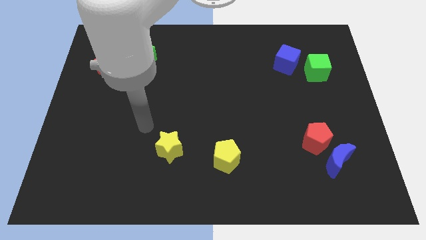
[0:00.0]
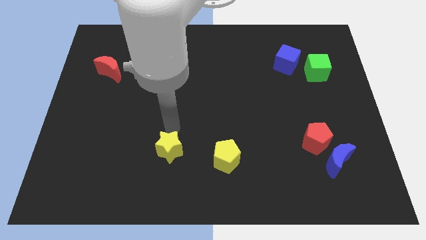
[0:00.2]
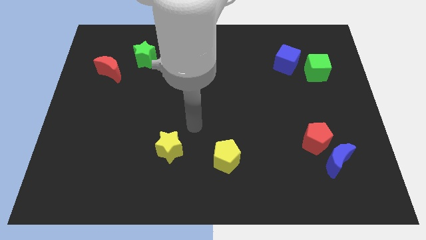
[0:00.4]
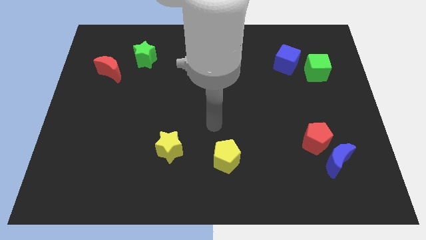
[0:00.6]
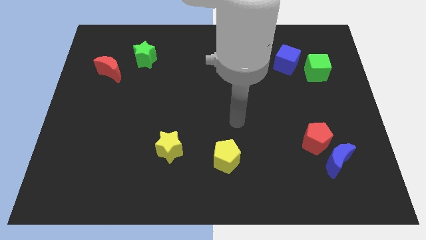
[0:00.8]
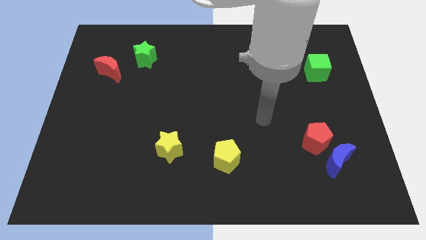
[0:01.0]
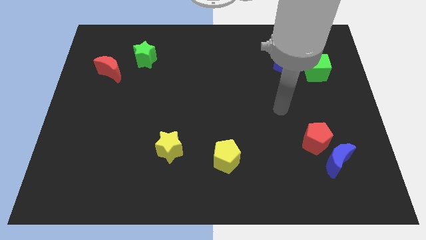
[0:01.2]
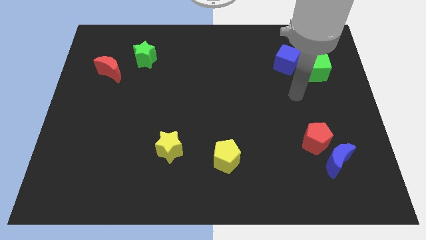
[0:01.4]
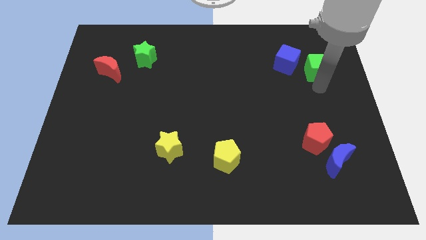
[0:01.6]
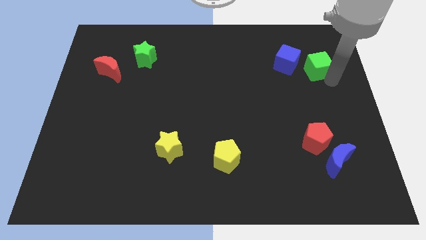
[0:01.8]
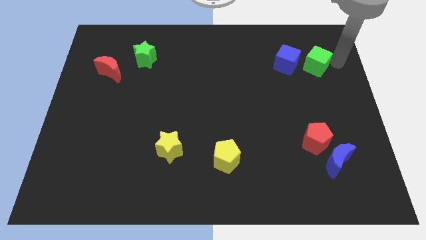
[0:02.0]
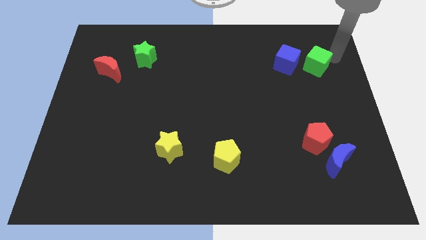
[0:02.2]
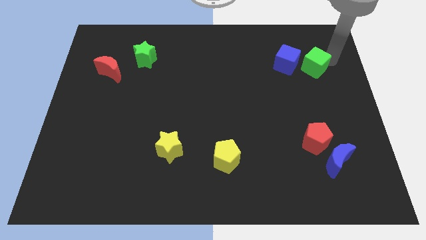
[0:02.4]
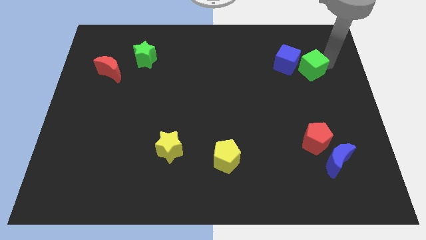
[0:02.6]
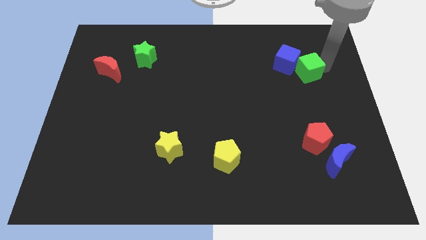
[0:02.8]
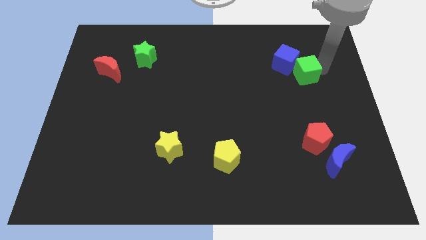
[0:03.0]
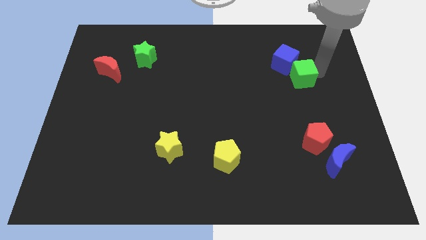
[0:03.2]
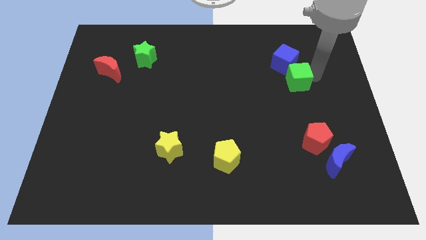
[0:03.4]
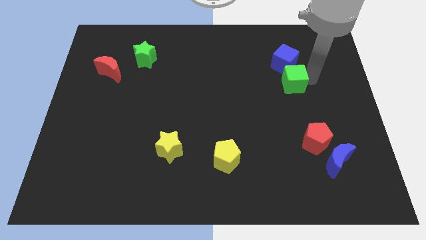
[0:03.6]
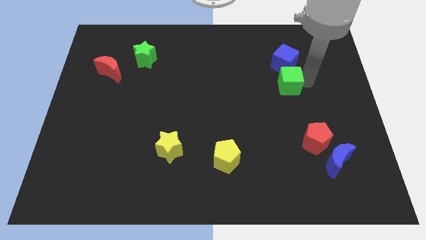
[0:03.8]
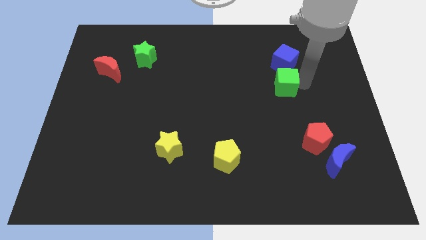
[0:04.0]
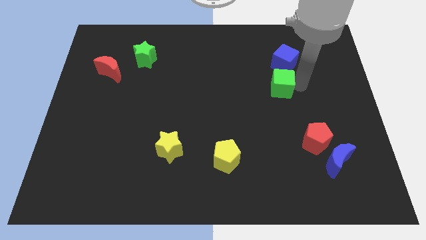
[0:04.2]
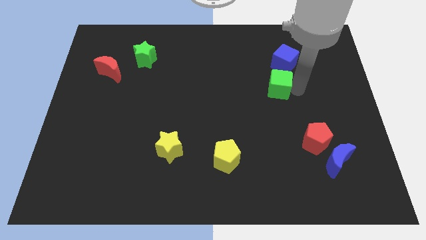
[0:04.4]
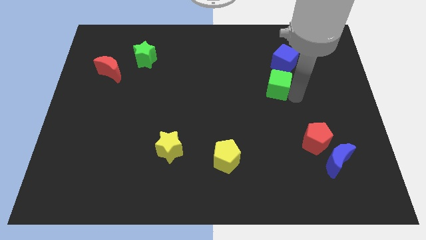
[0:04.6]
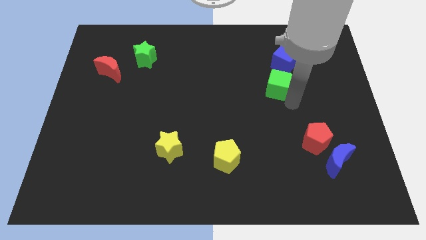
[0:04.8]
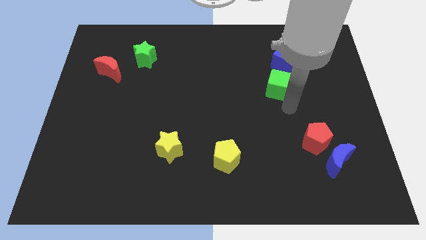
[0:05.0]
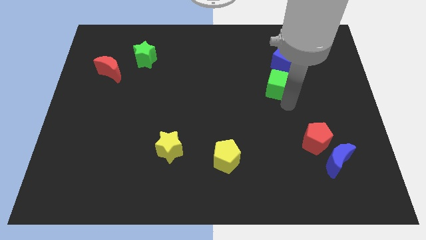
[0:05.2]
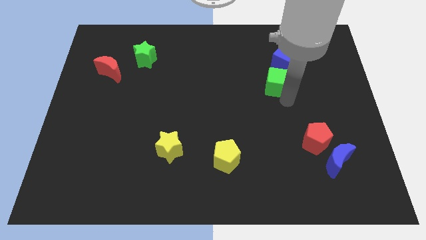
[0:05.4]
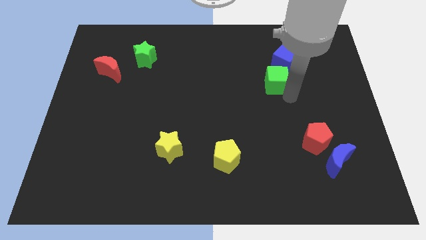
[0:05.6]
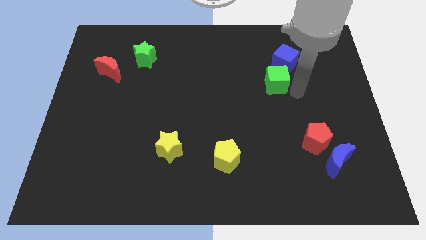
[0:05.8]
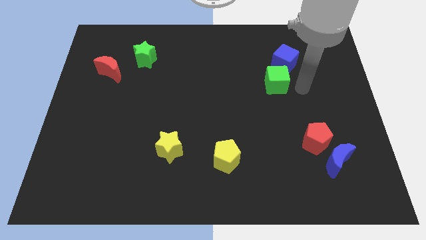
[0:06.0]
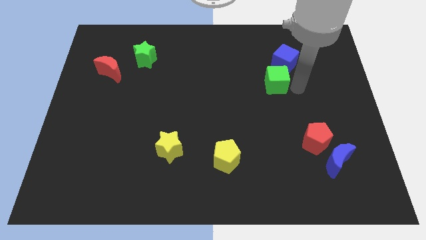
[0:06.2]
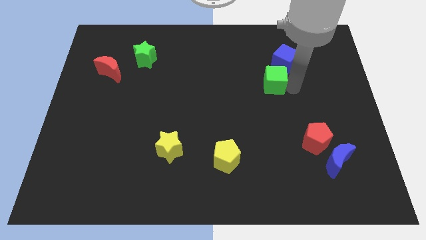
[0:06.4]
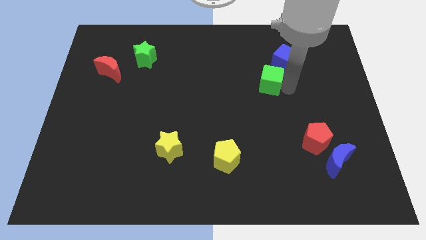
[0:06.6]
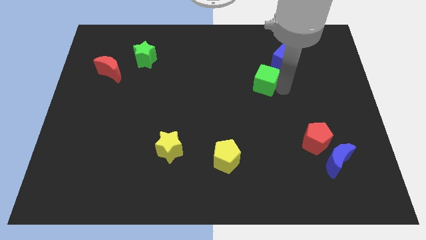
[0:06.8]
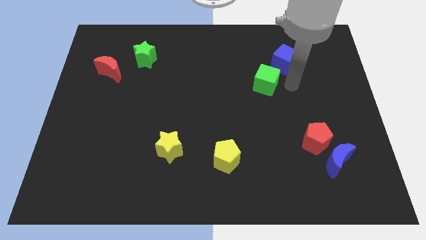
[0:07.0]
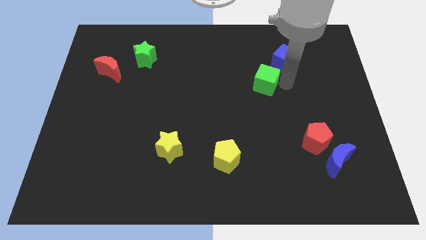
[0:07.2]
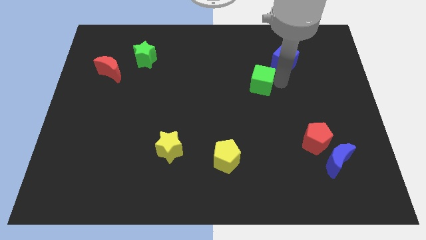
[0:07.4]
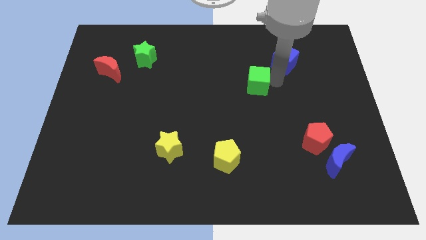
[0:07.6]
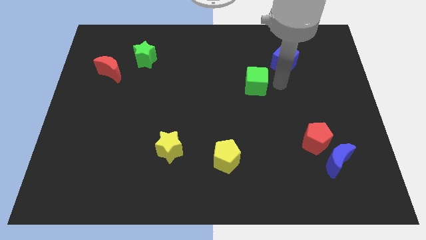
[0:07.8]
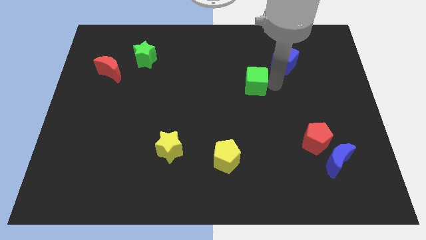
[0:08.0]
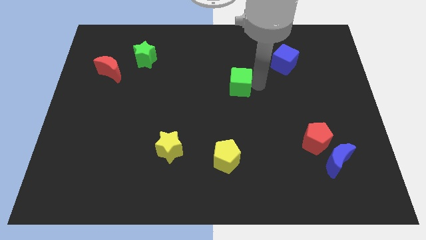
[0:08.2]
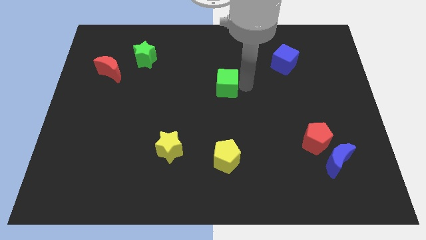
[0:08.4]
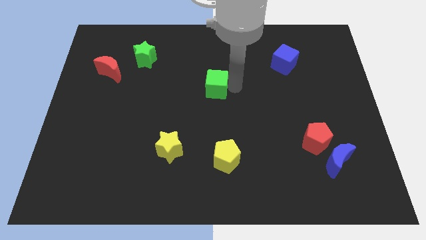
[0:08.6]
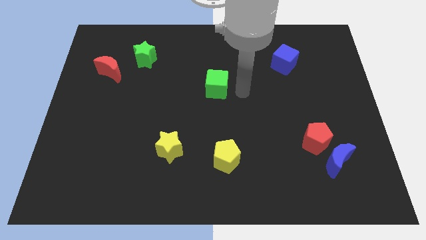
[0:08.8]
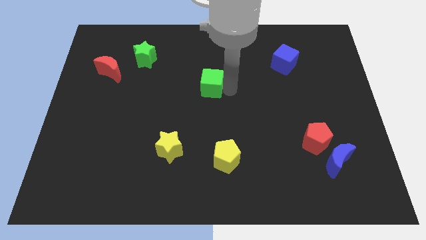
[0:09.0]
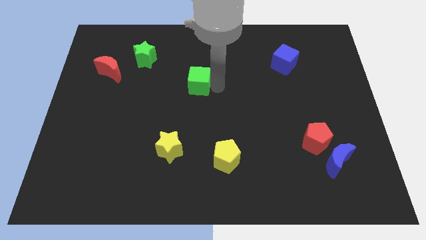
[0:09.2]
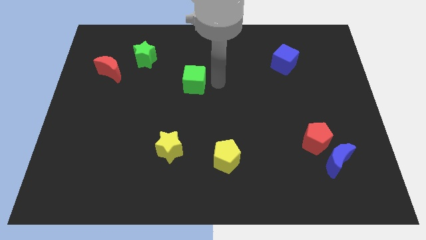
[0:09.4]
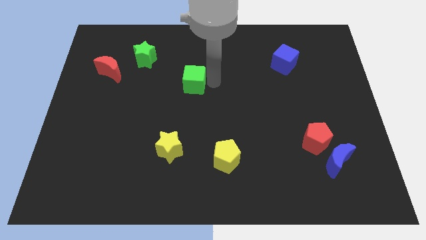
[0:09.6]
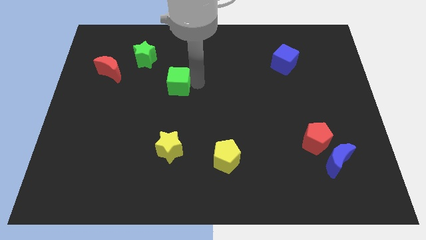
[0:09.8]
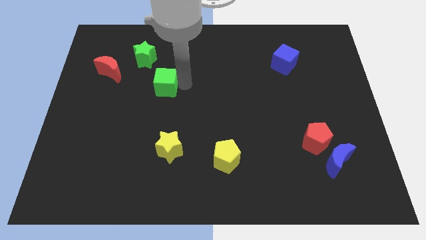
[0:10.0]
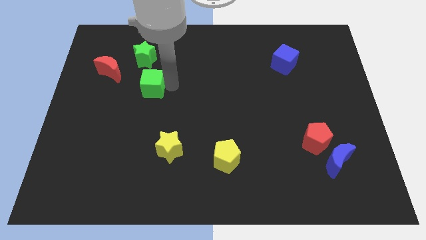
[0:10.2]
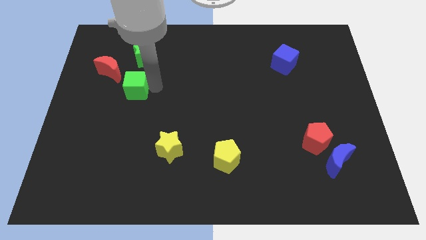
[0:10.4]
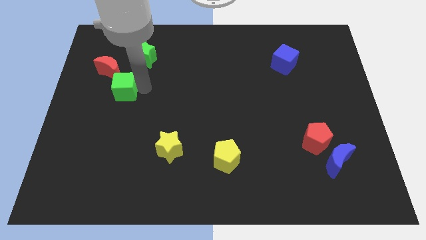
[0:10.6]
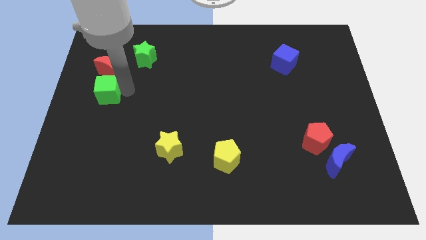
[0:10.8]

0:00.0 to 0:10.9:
put the green cube to the left side
